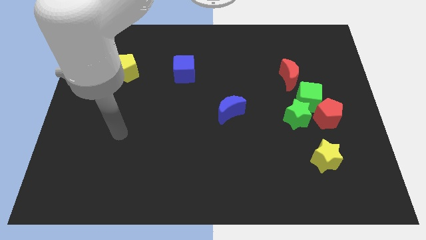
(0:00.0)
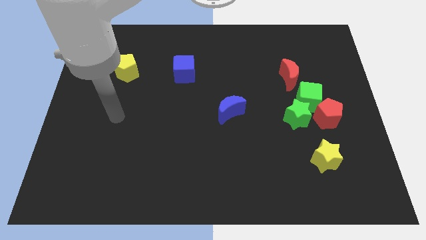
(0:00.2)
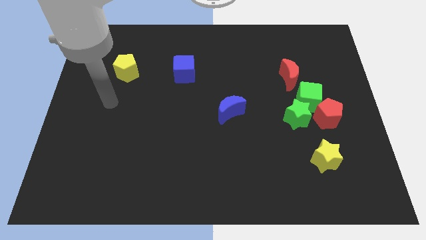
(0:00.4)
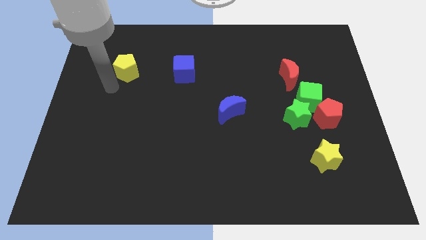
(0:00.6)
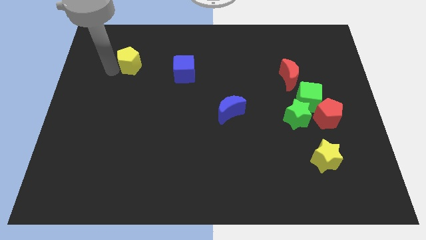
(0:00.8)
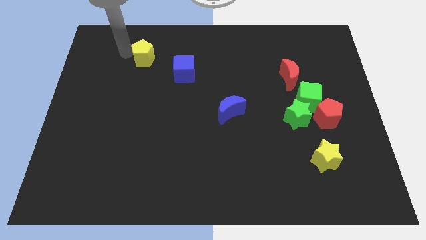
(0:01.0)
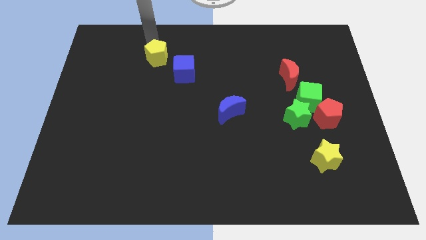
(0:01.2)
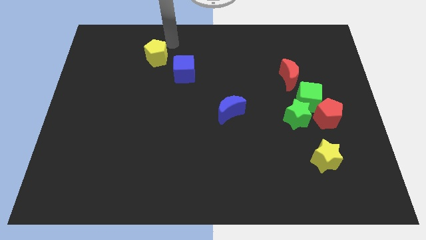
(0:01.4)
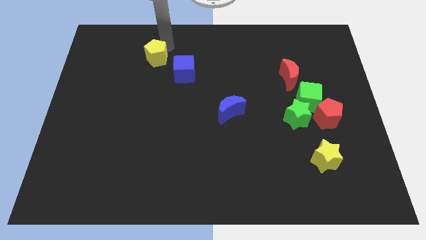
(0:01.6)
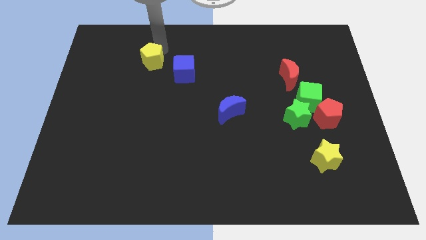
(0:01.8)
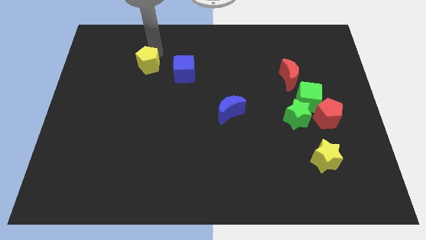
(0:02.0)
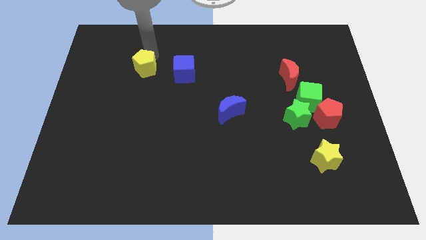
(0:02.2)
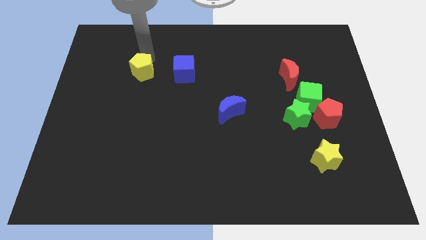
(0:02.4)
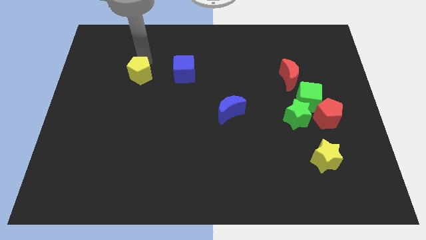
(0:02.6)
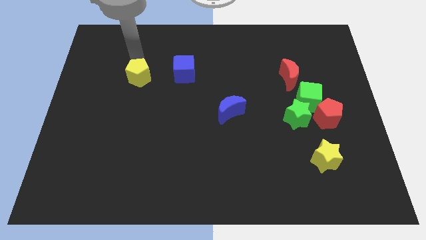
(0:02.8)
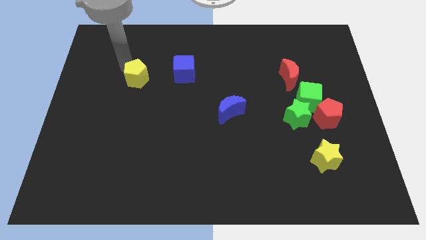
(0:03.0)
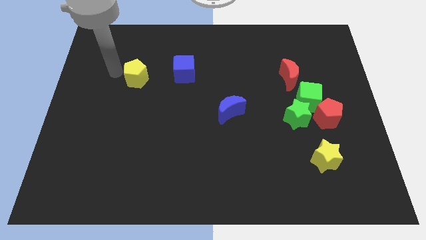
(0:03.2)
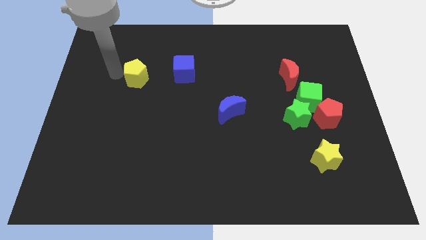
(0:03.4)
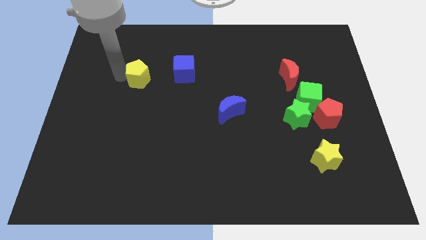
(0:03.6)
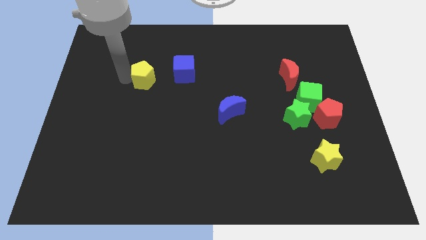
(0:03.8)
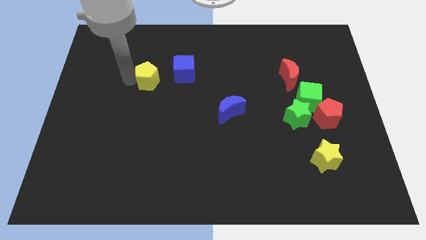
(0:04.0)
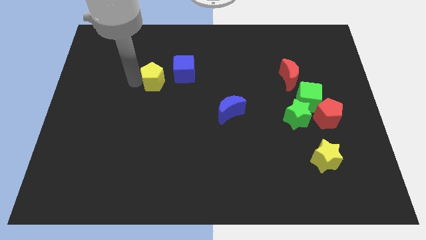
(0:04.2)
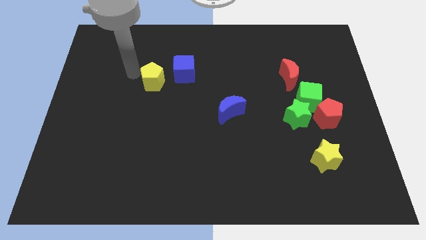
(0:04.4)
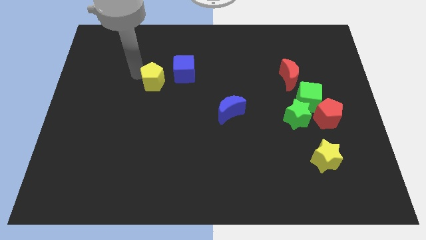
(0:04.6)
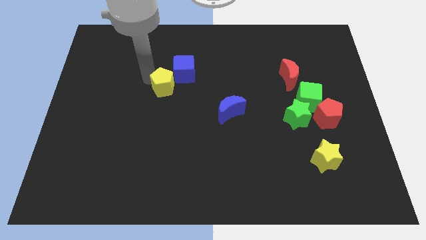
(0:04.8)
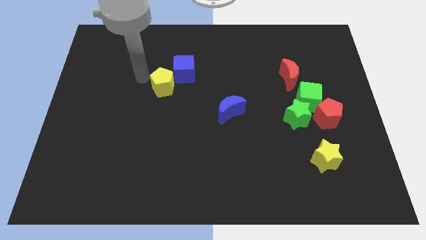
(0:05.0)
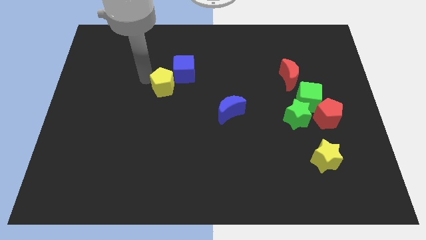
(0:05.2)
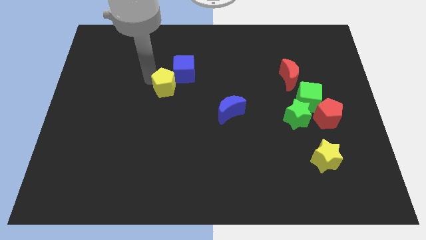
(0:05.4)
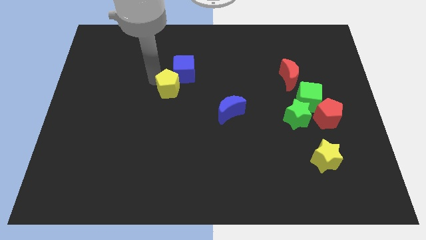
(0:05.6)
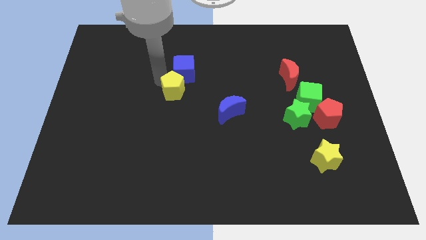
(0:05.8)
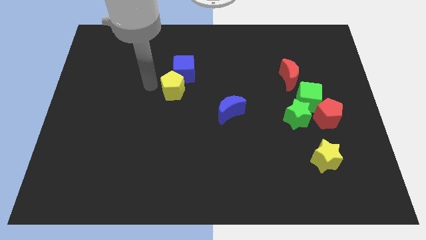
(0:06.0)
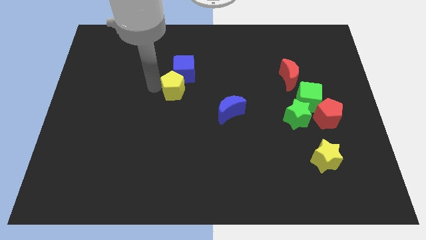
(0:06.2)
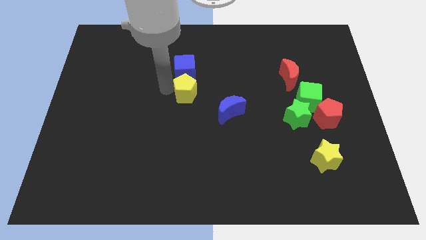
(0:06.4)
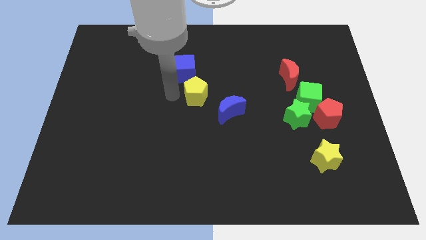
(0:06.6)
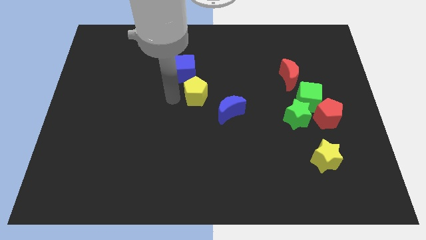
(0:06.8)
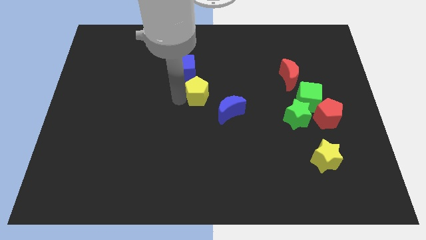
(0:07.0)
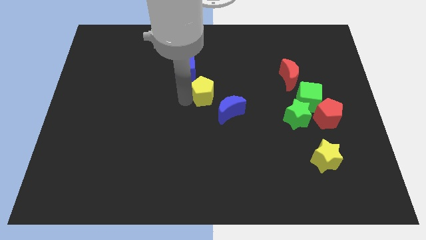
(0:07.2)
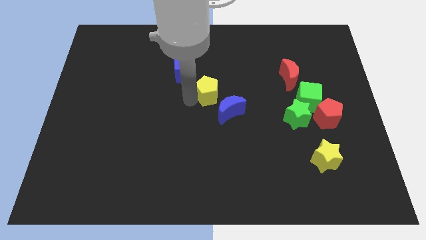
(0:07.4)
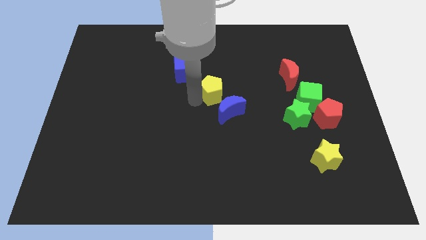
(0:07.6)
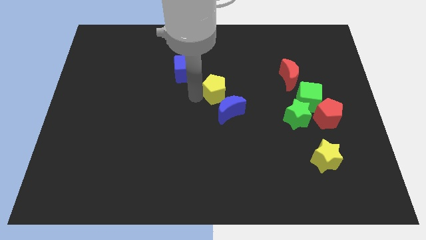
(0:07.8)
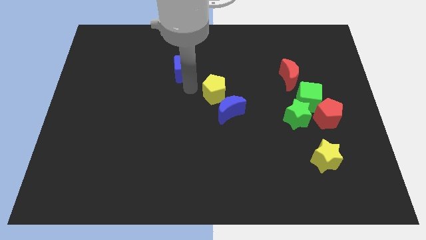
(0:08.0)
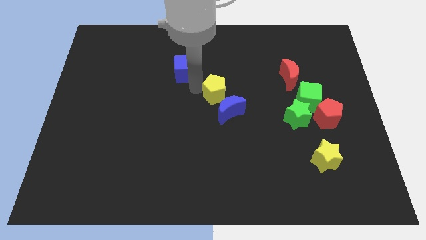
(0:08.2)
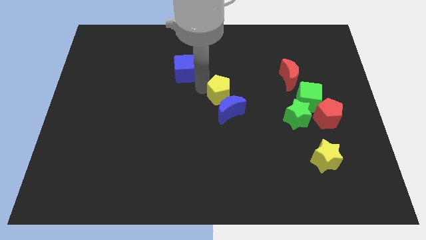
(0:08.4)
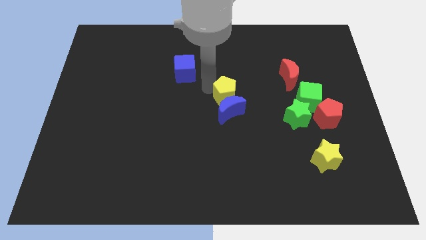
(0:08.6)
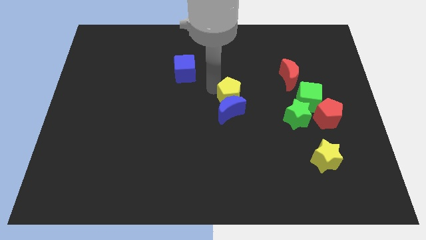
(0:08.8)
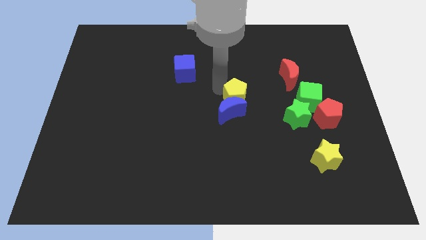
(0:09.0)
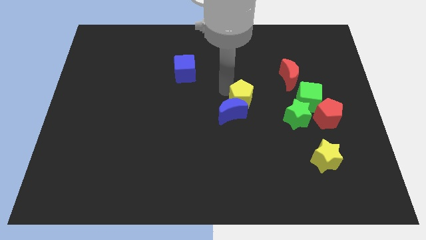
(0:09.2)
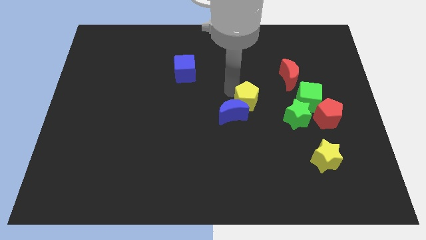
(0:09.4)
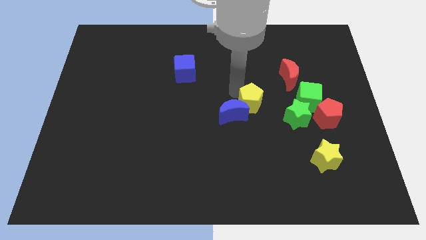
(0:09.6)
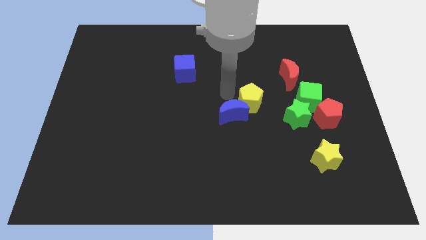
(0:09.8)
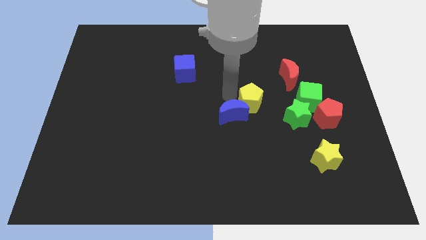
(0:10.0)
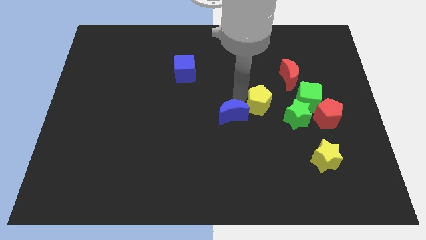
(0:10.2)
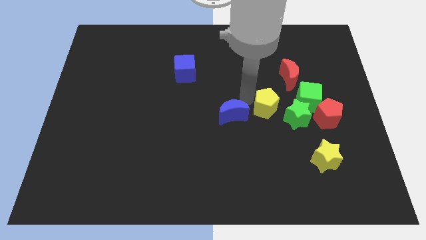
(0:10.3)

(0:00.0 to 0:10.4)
slide the yellow pentagon left of the red pentagon

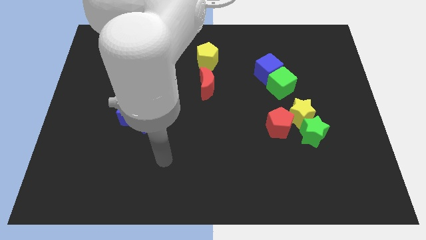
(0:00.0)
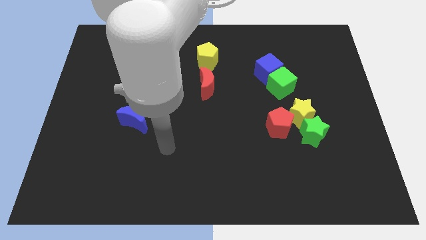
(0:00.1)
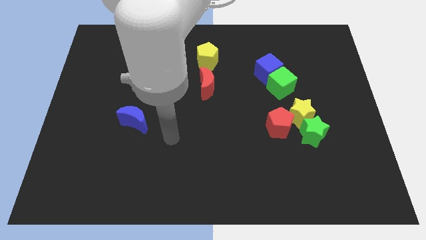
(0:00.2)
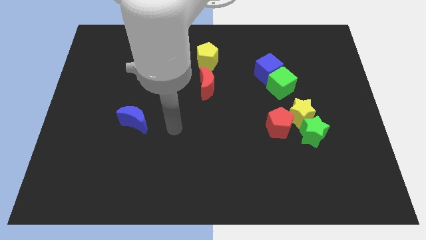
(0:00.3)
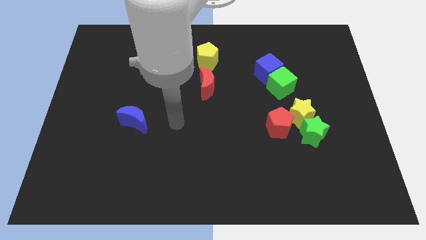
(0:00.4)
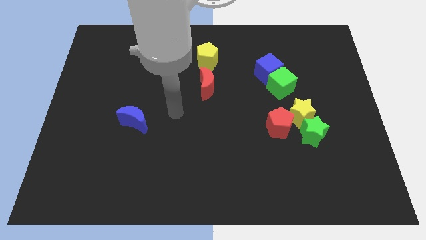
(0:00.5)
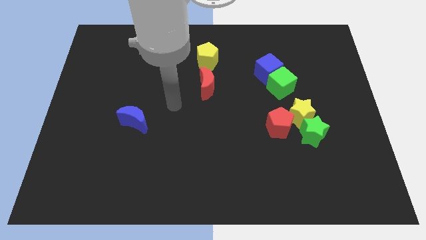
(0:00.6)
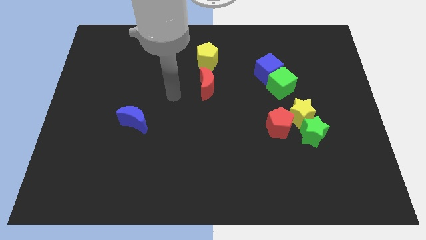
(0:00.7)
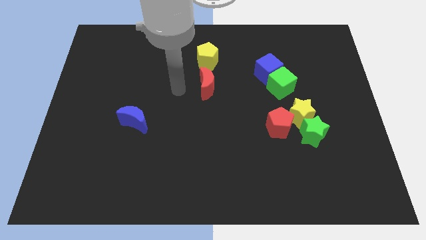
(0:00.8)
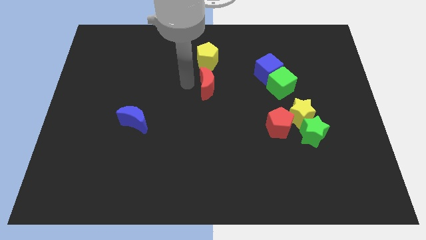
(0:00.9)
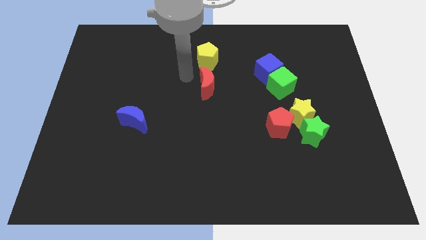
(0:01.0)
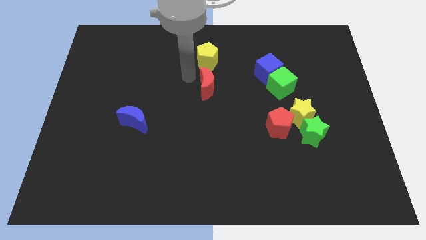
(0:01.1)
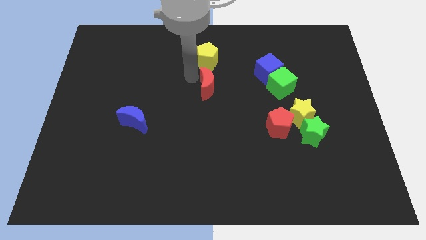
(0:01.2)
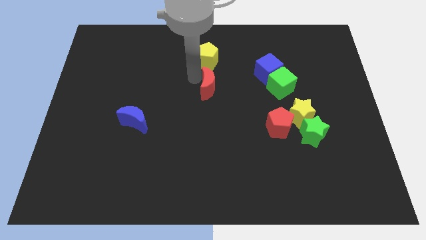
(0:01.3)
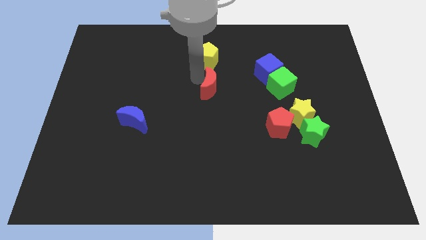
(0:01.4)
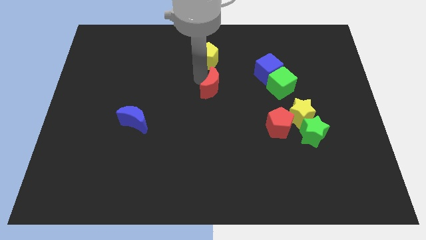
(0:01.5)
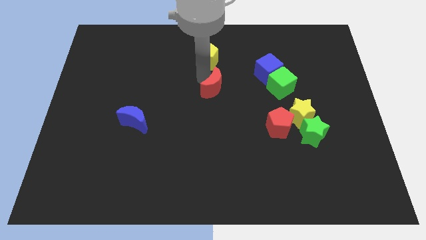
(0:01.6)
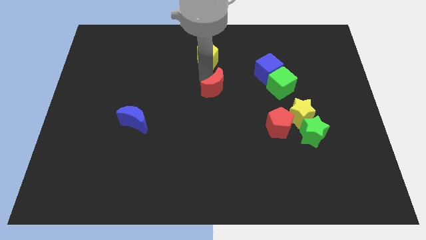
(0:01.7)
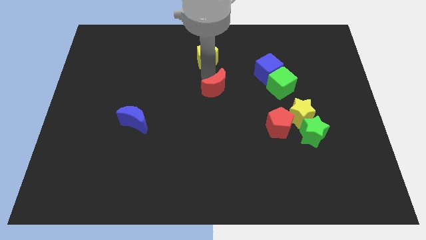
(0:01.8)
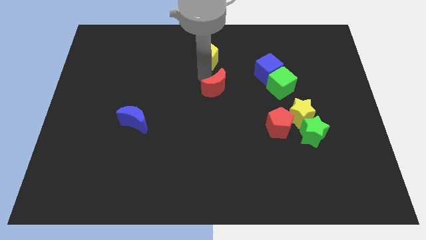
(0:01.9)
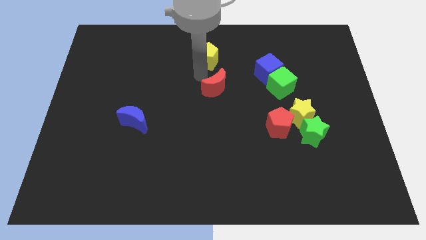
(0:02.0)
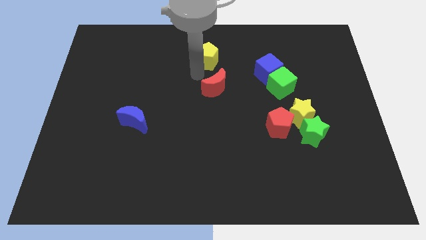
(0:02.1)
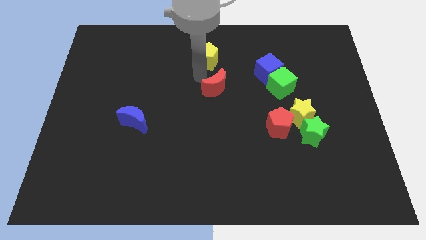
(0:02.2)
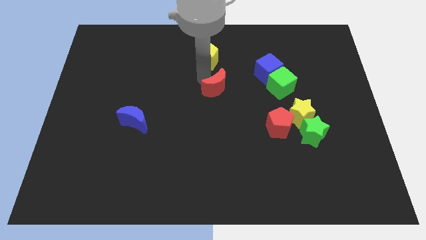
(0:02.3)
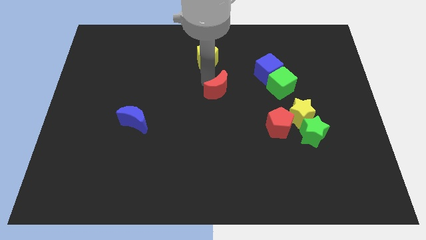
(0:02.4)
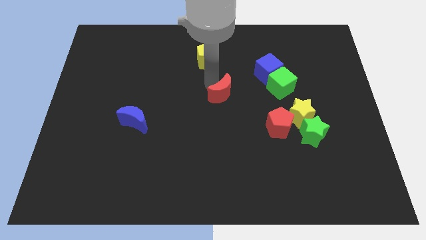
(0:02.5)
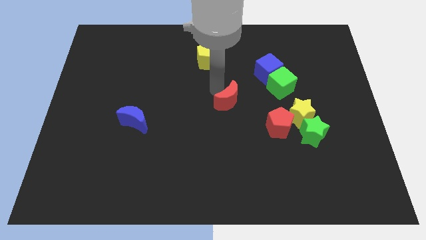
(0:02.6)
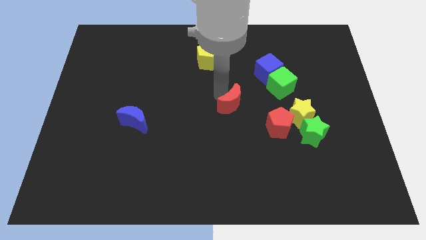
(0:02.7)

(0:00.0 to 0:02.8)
put the red moon to the top left side of the red pentagon

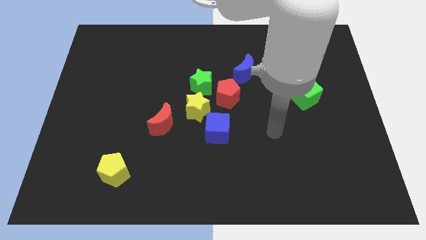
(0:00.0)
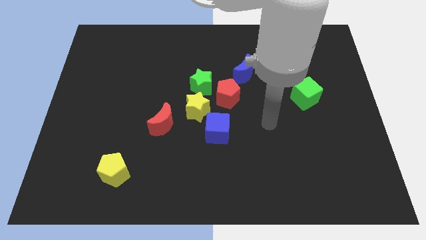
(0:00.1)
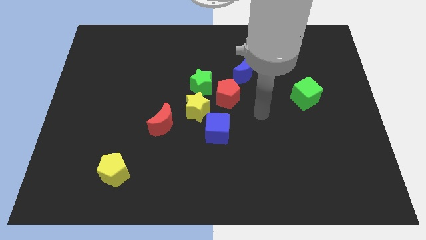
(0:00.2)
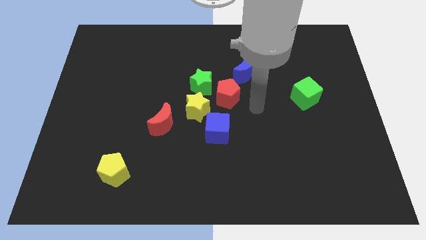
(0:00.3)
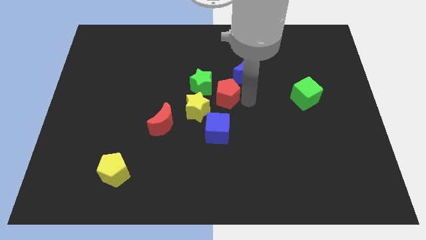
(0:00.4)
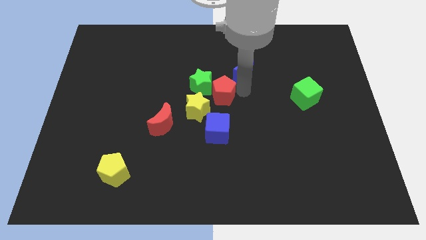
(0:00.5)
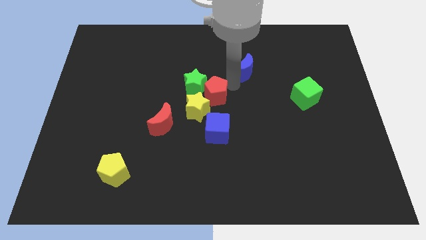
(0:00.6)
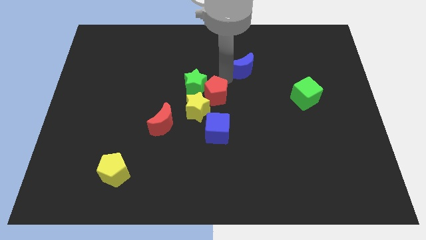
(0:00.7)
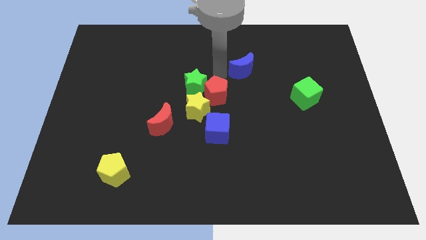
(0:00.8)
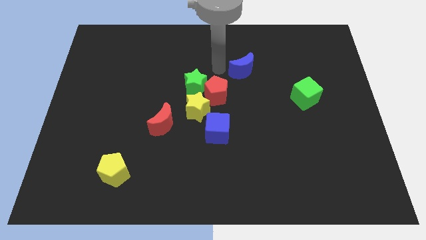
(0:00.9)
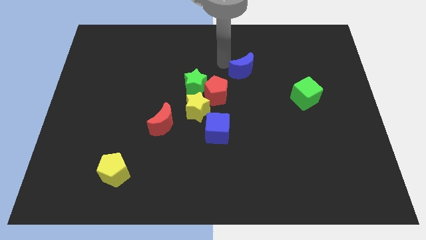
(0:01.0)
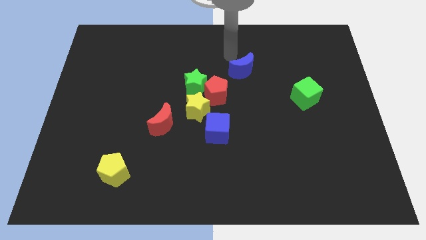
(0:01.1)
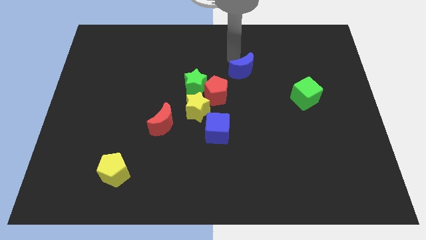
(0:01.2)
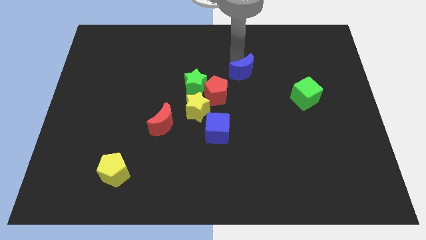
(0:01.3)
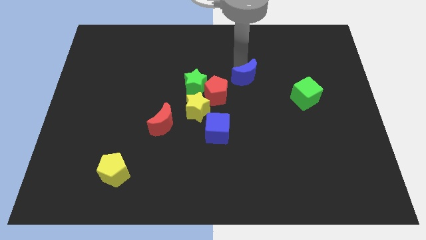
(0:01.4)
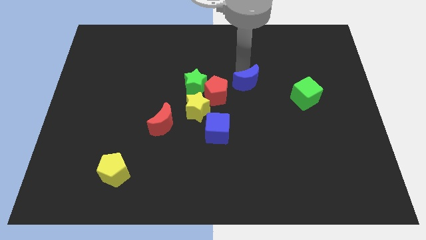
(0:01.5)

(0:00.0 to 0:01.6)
slide the blue moon to the right side of the red pentagon
